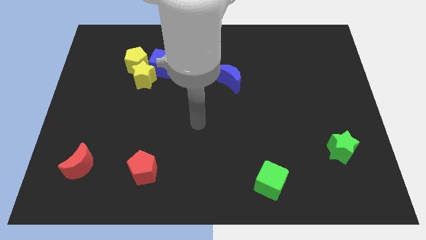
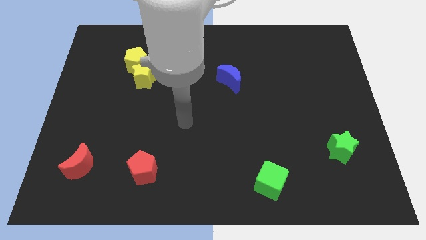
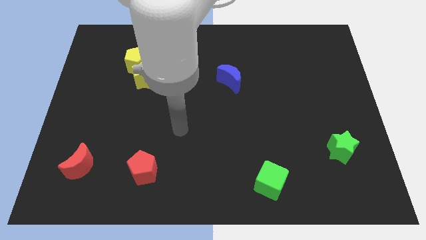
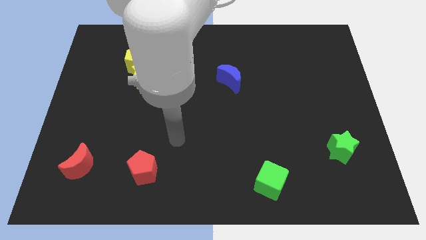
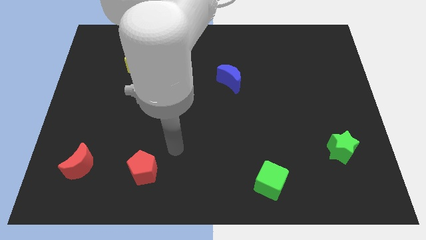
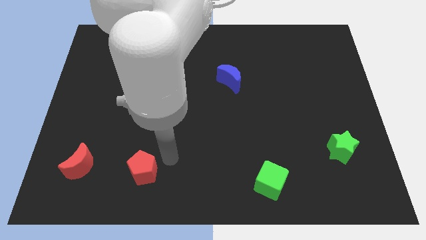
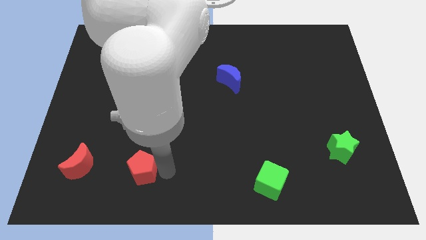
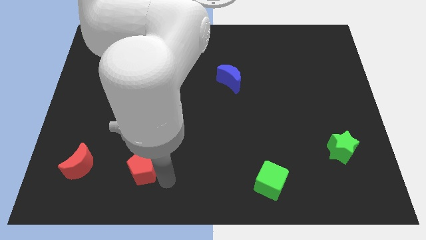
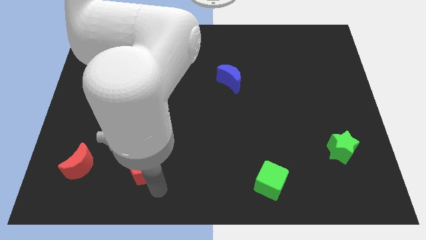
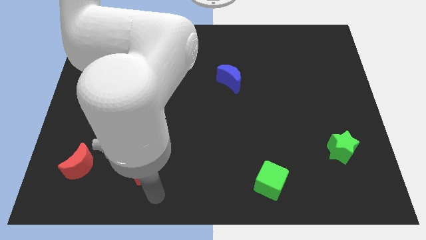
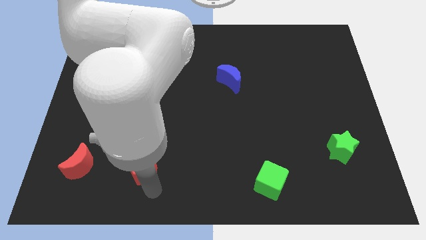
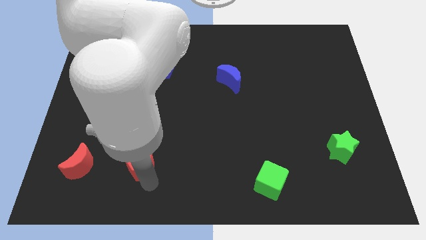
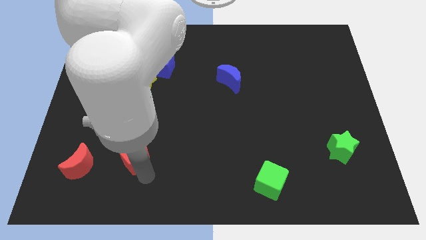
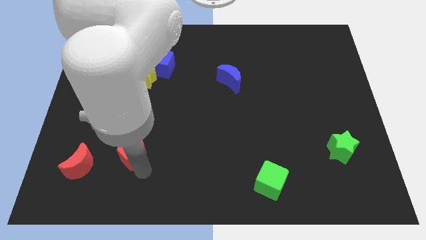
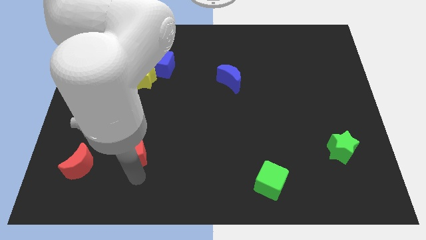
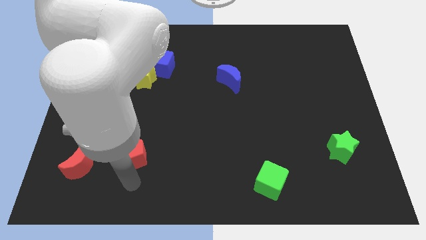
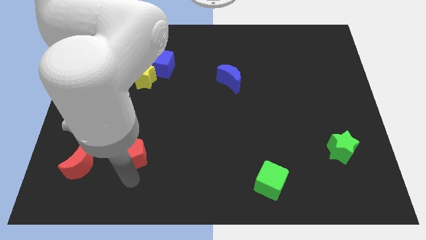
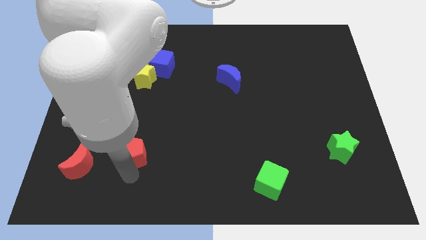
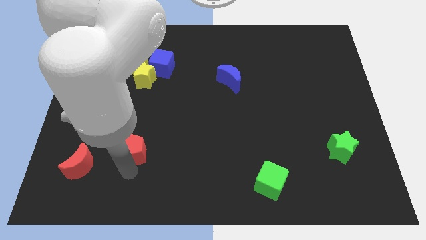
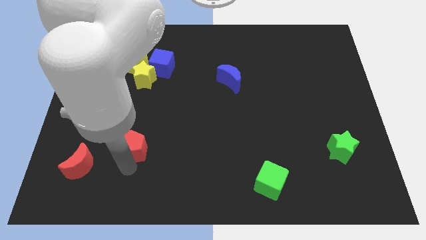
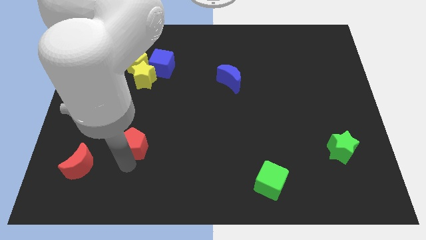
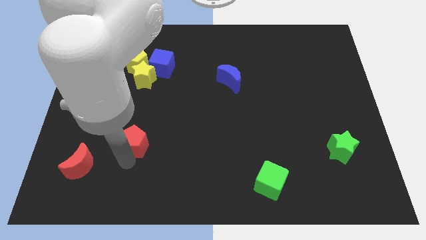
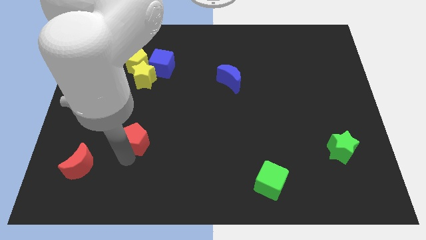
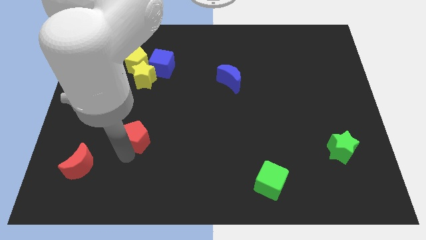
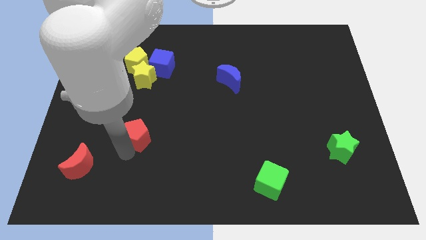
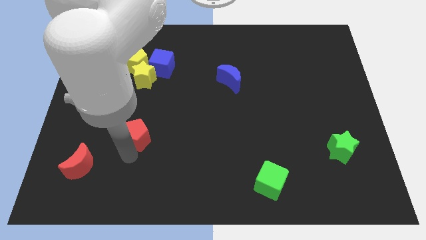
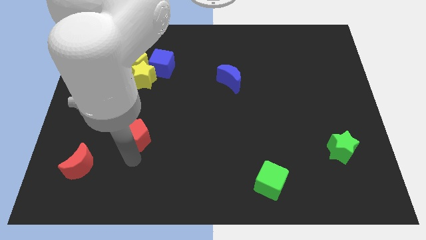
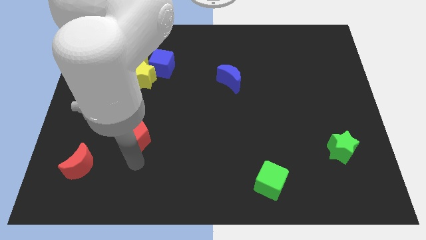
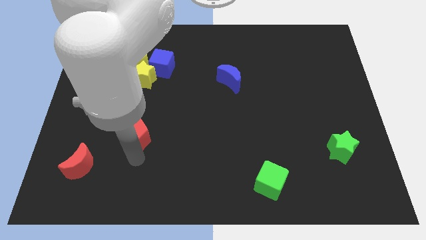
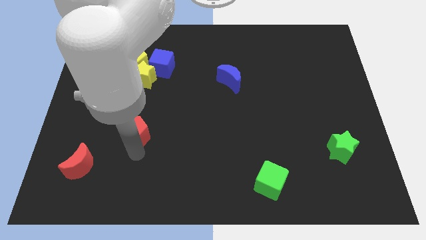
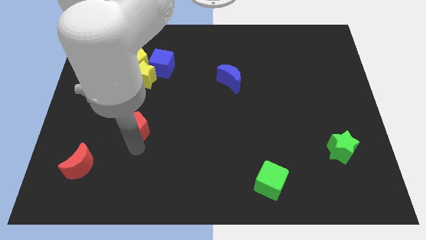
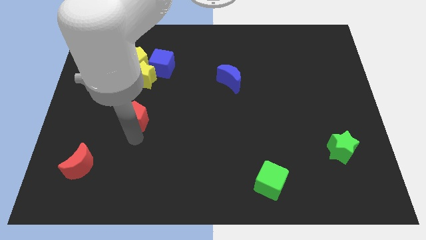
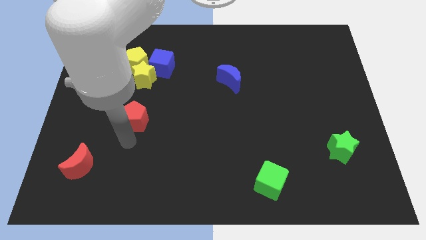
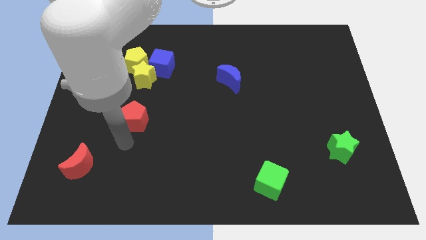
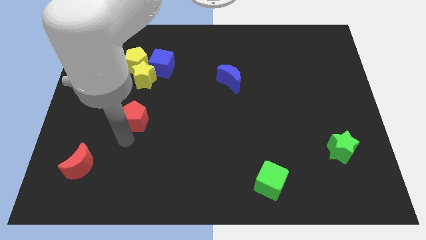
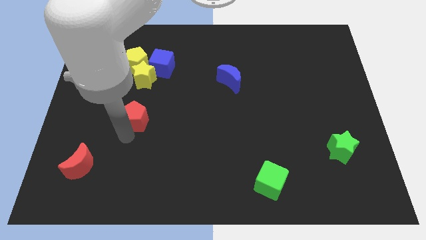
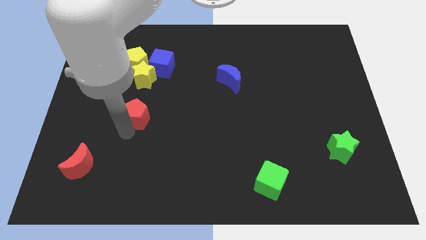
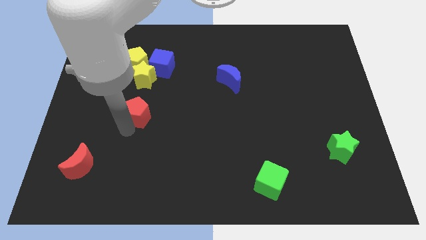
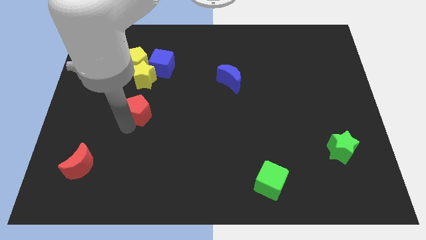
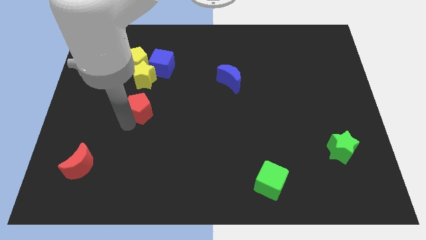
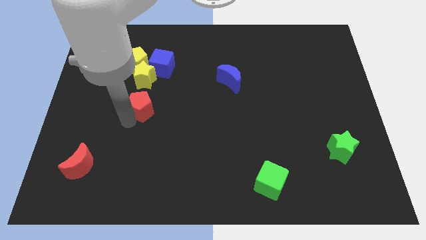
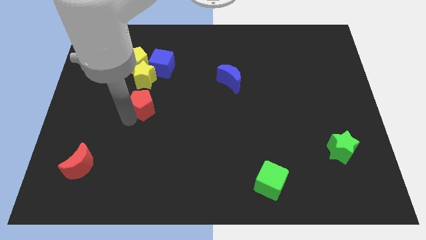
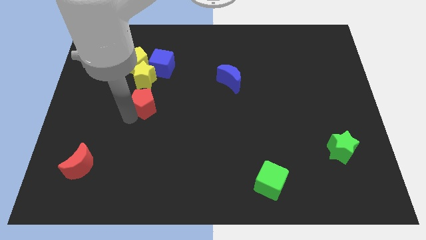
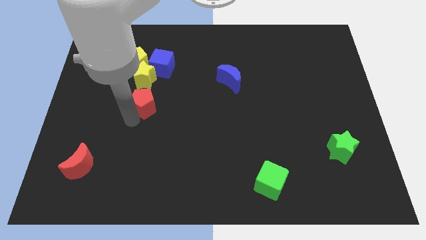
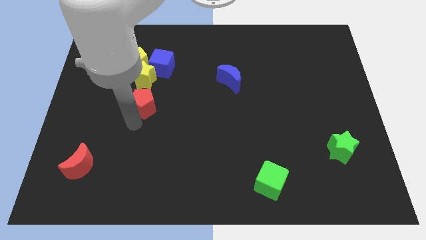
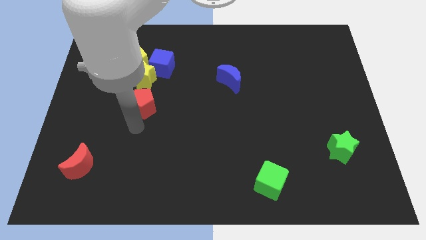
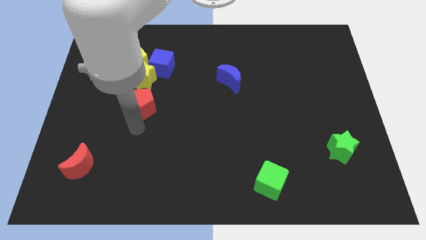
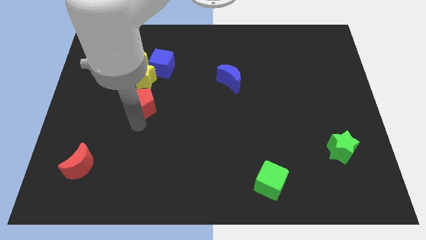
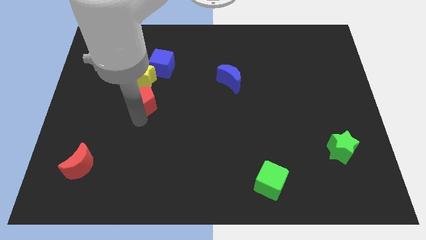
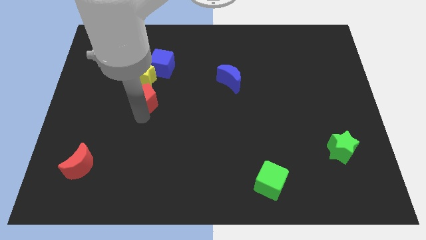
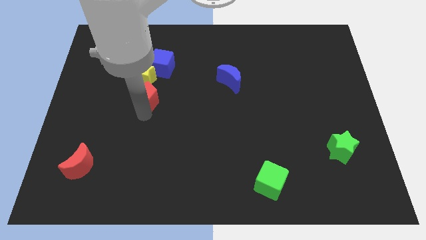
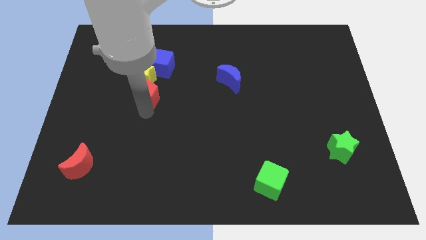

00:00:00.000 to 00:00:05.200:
push the red pentagon close to the yellow star

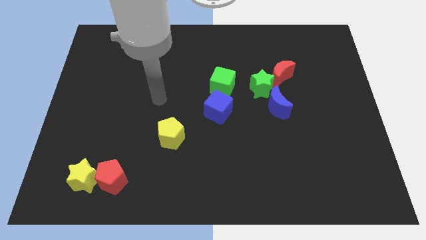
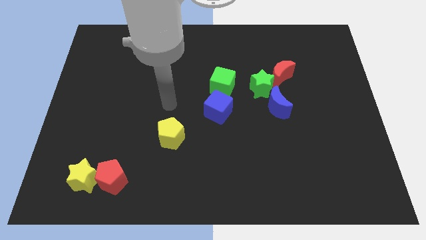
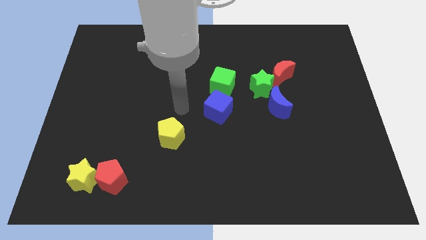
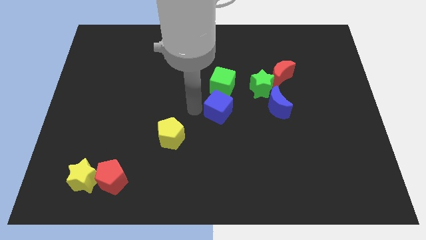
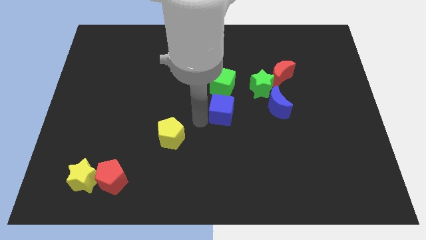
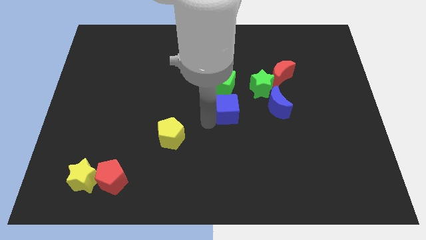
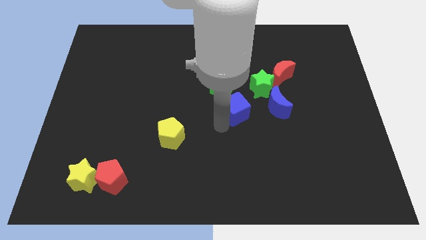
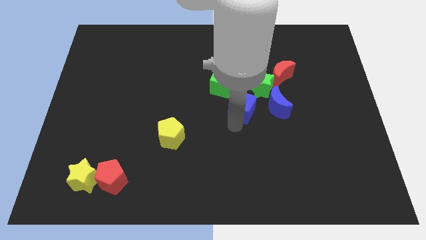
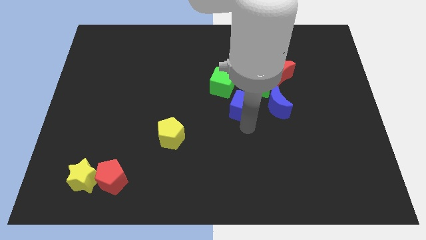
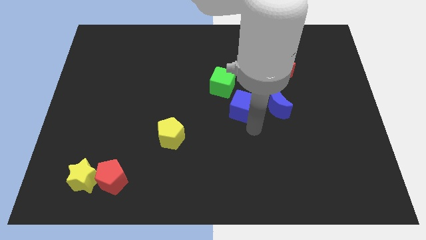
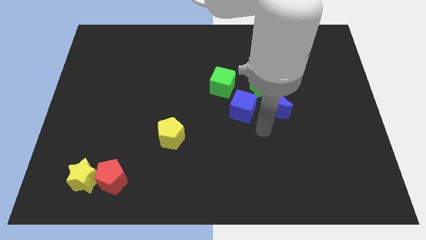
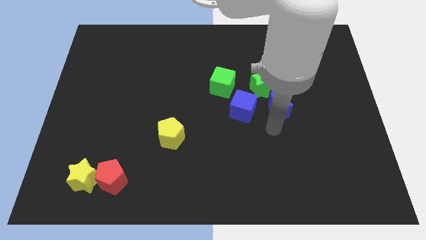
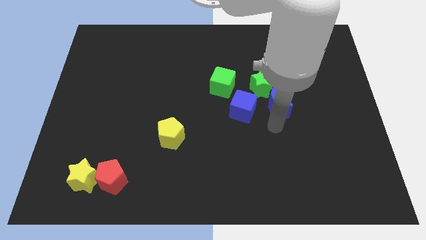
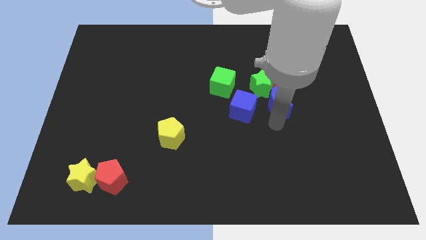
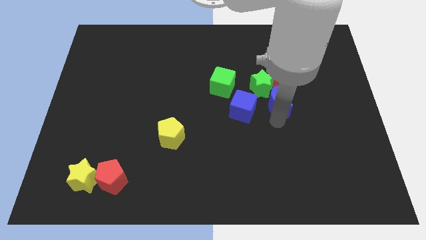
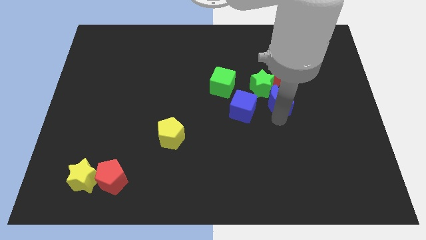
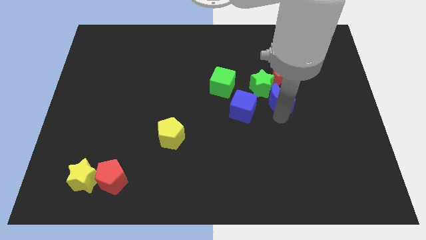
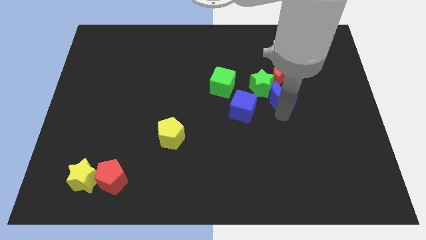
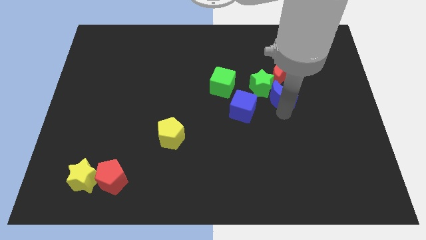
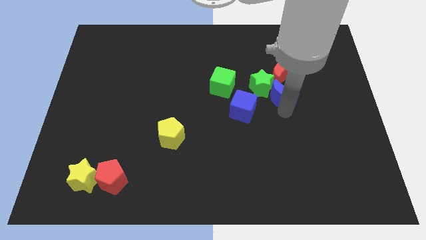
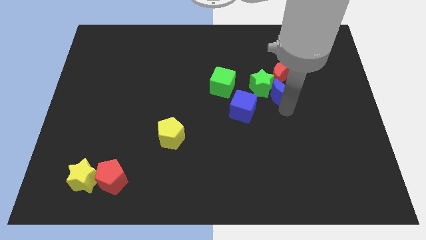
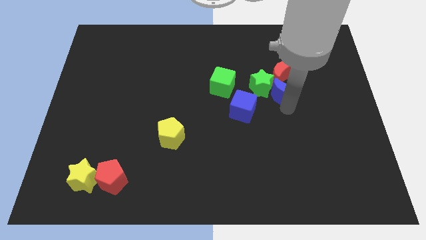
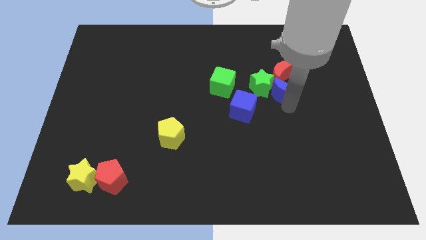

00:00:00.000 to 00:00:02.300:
push the blue moon towards the red moon
